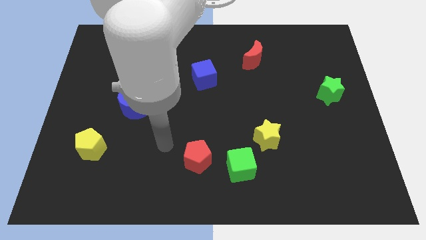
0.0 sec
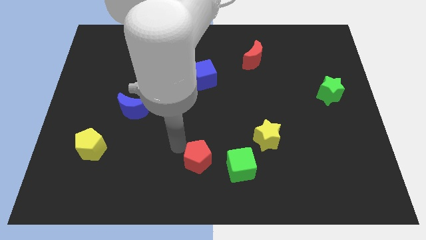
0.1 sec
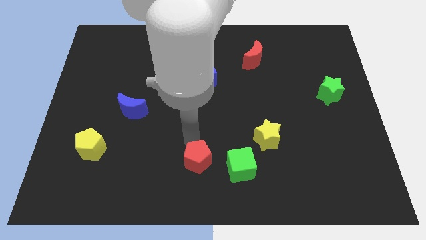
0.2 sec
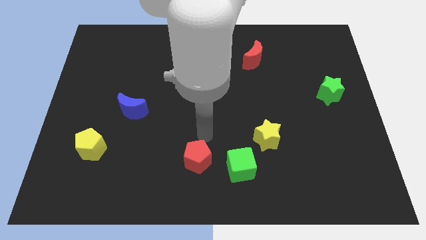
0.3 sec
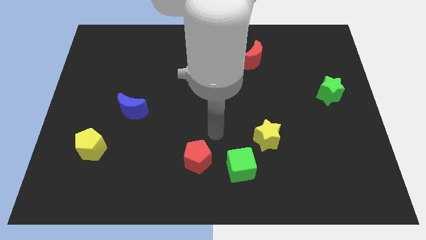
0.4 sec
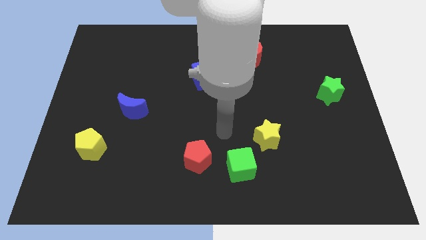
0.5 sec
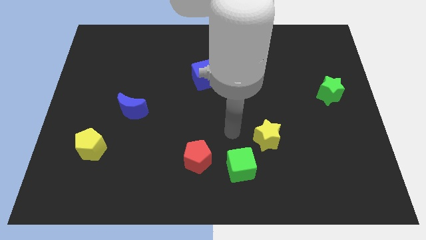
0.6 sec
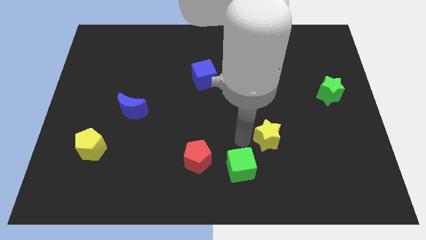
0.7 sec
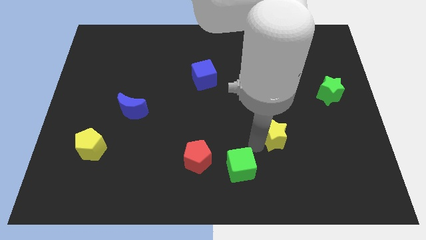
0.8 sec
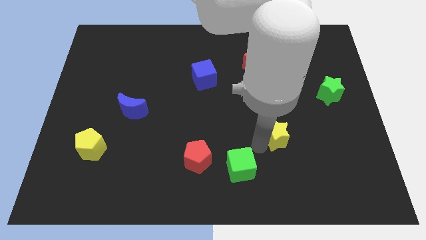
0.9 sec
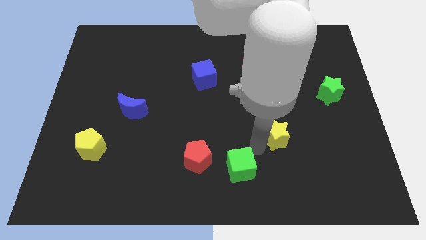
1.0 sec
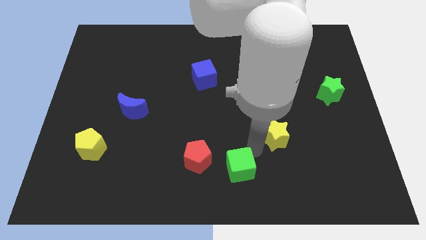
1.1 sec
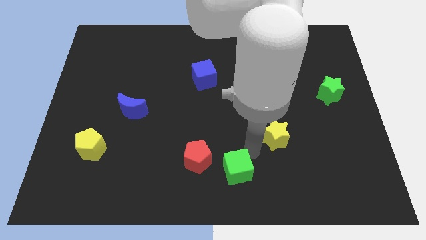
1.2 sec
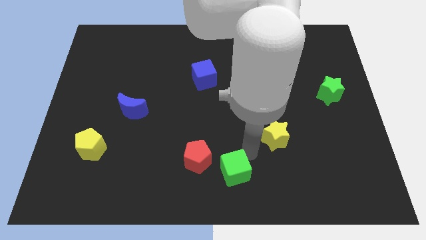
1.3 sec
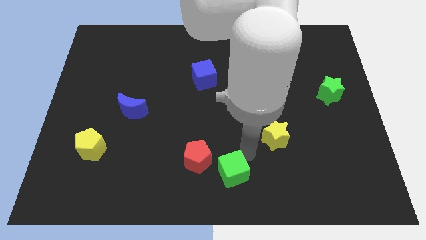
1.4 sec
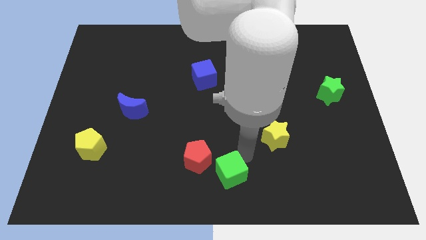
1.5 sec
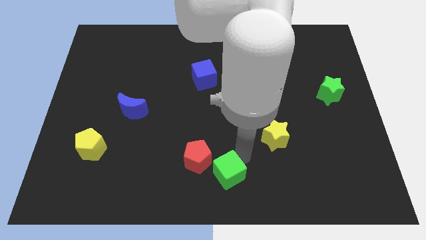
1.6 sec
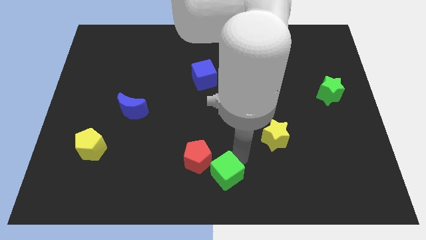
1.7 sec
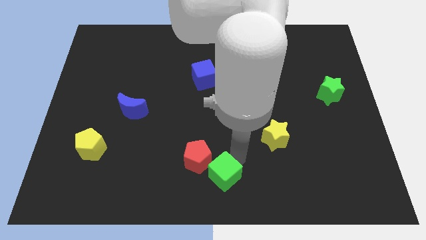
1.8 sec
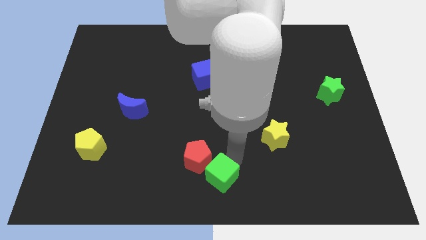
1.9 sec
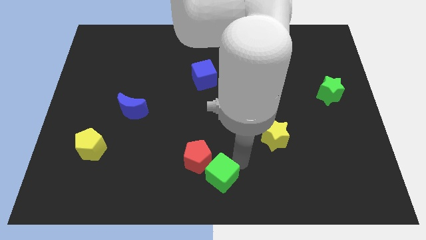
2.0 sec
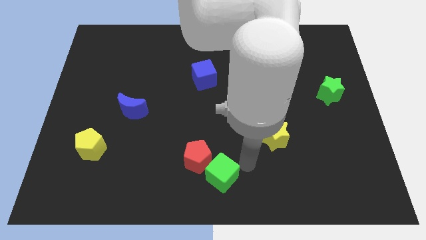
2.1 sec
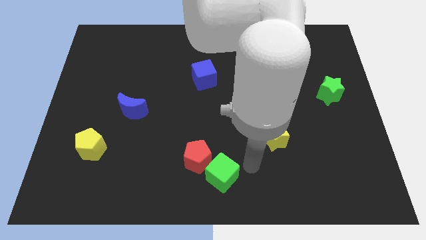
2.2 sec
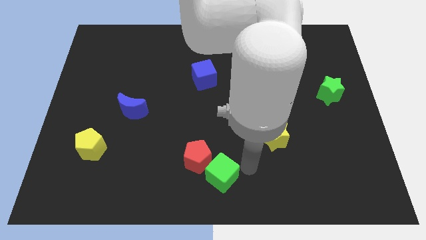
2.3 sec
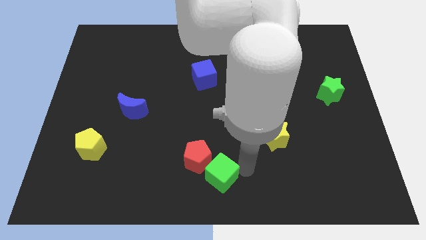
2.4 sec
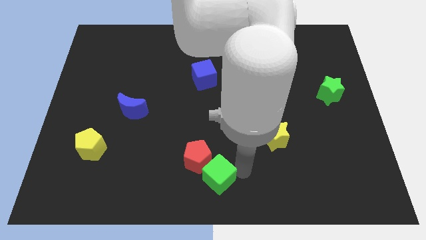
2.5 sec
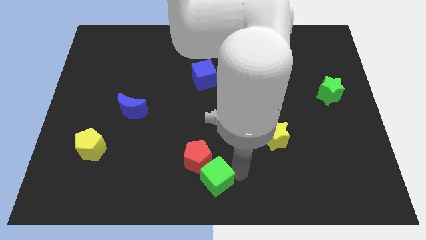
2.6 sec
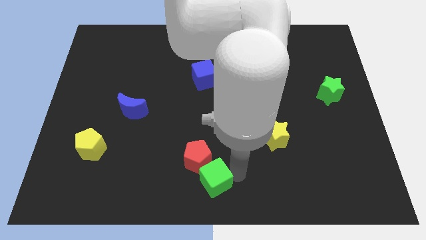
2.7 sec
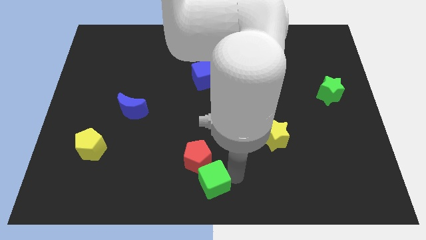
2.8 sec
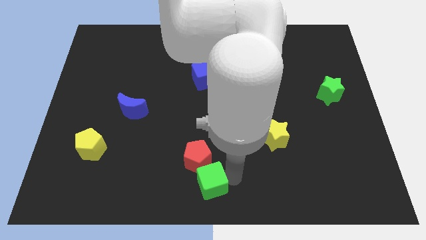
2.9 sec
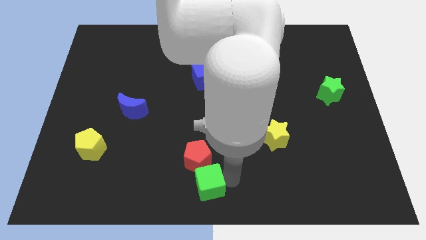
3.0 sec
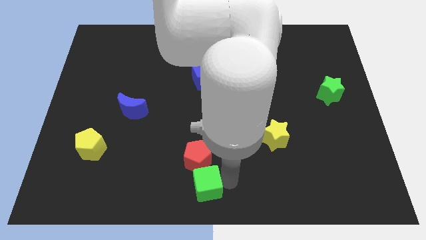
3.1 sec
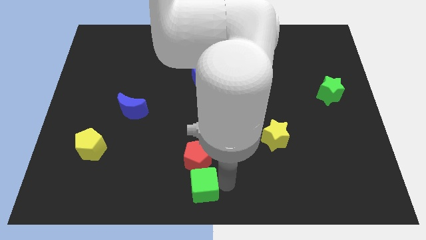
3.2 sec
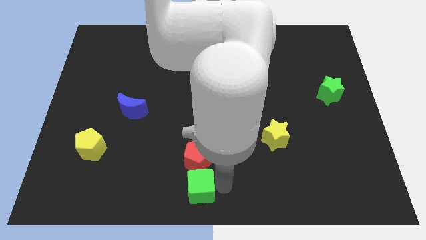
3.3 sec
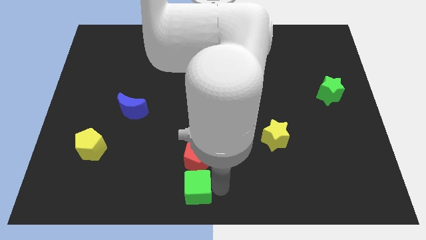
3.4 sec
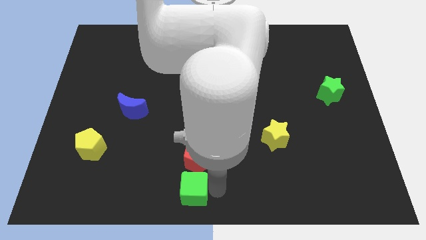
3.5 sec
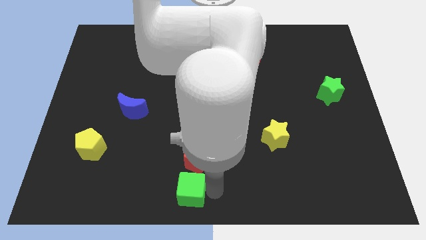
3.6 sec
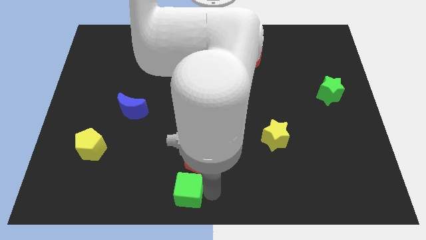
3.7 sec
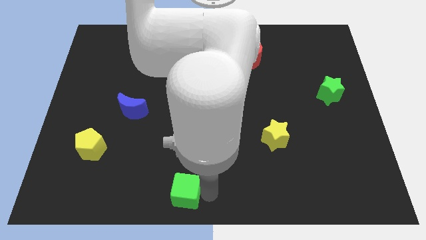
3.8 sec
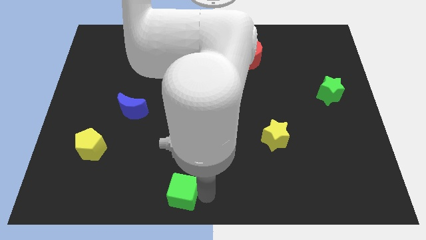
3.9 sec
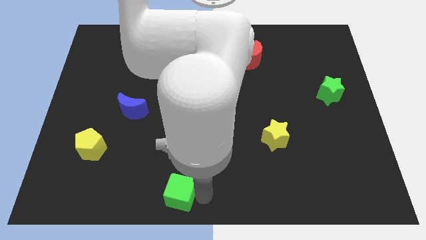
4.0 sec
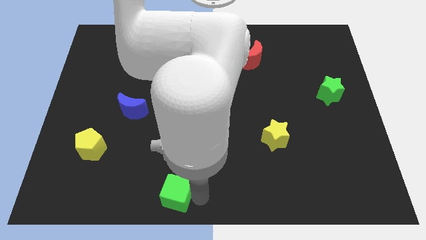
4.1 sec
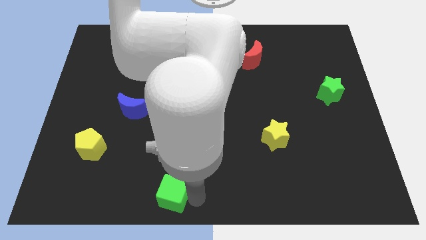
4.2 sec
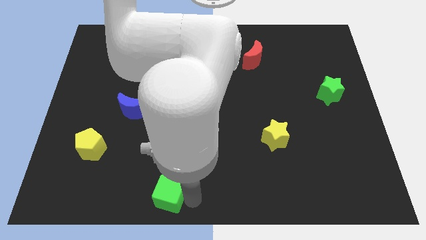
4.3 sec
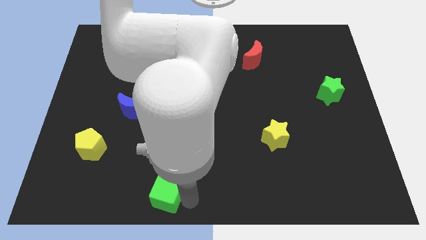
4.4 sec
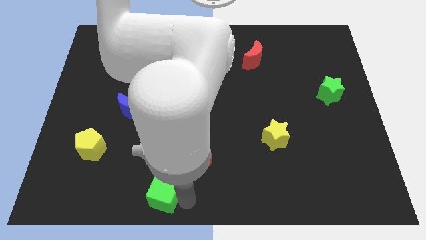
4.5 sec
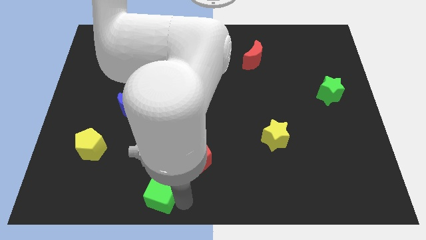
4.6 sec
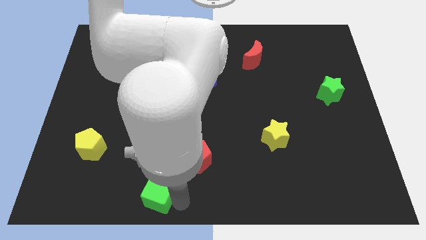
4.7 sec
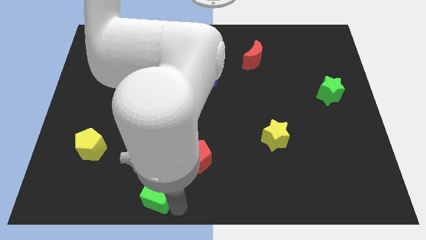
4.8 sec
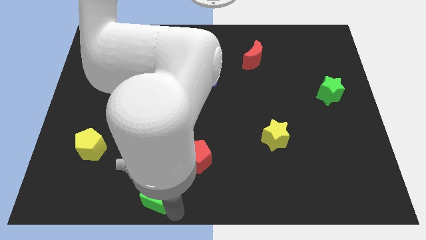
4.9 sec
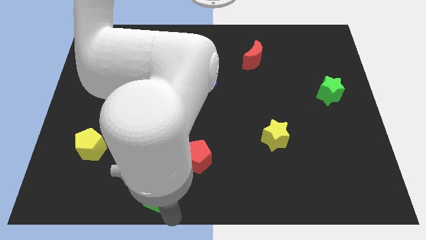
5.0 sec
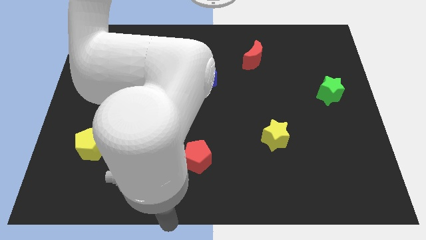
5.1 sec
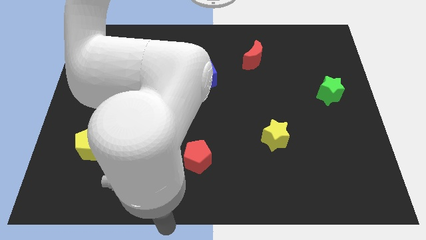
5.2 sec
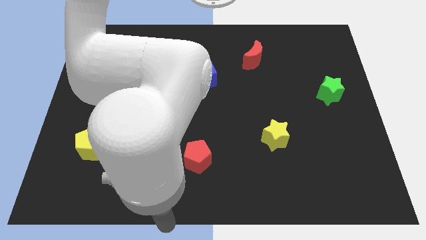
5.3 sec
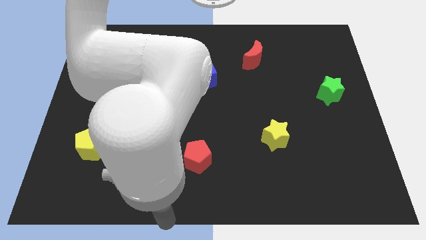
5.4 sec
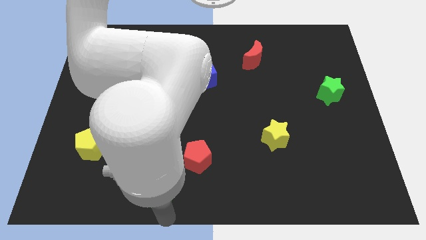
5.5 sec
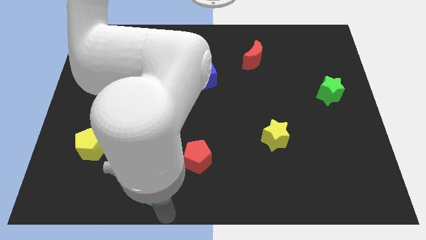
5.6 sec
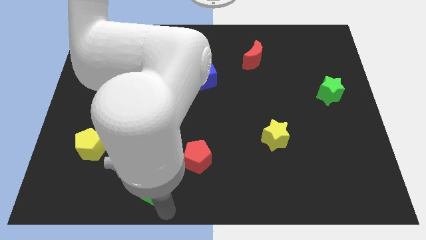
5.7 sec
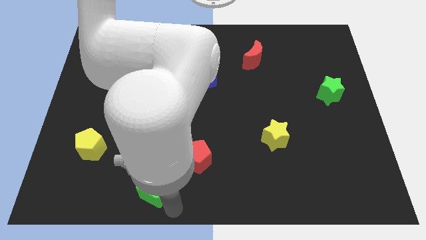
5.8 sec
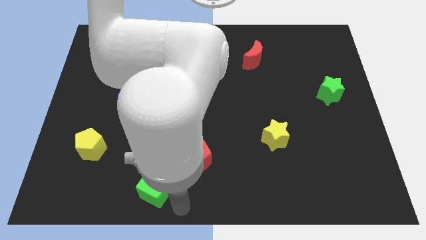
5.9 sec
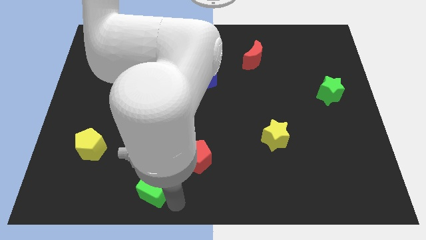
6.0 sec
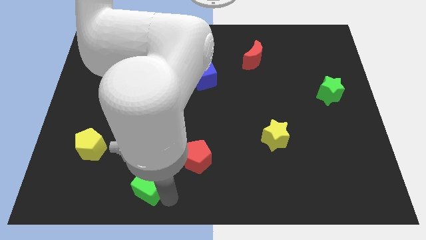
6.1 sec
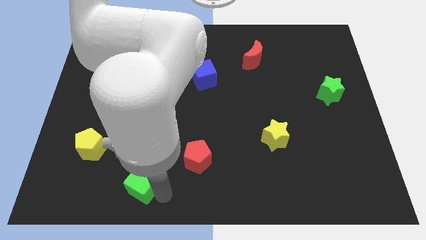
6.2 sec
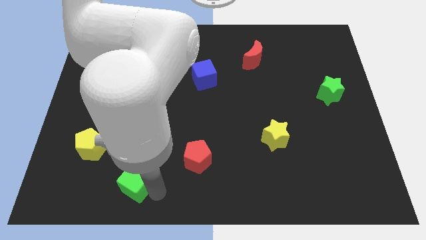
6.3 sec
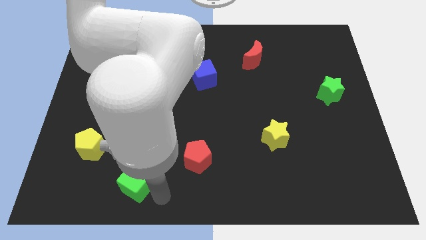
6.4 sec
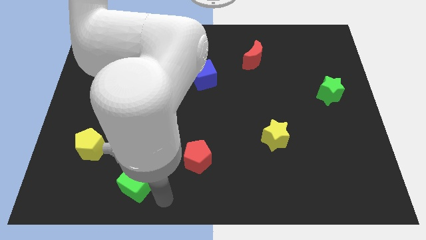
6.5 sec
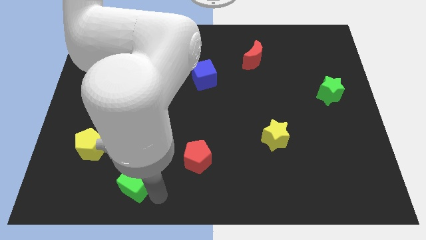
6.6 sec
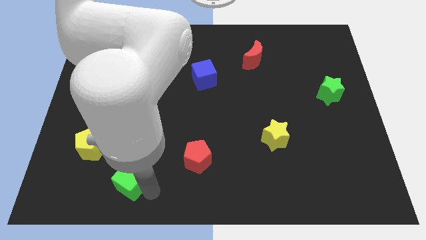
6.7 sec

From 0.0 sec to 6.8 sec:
move the green cube to the bottom right side of the yellow pentagon

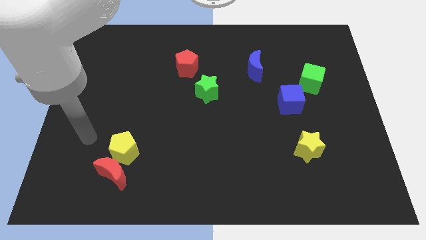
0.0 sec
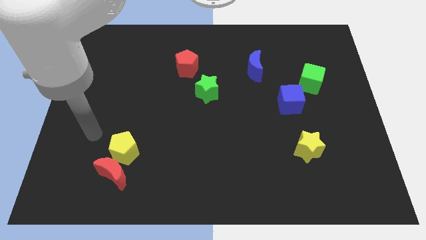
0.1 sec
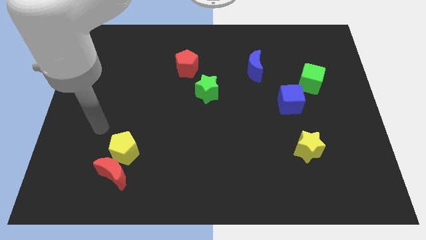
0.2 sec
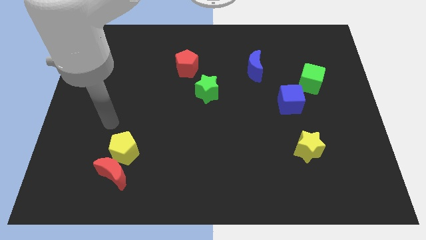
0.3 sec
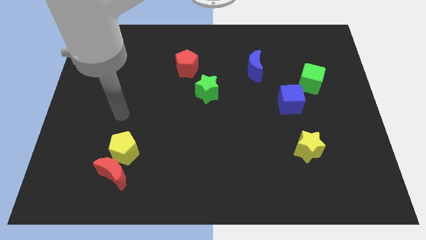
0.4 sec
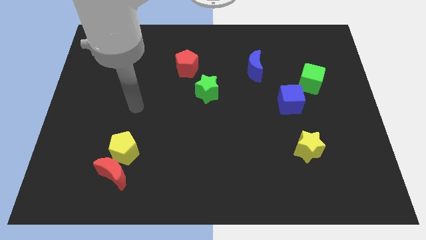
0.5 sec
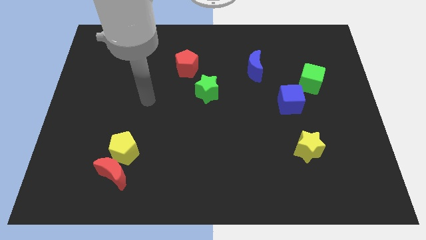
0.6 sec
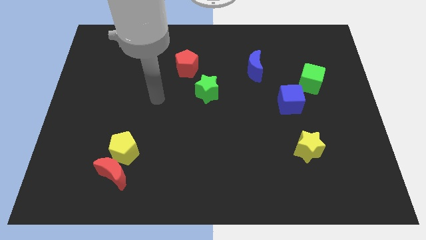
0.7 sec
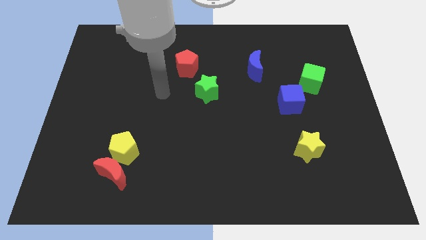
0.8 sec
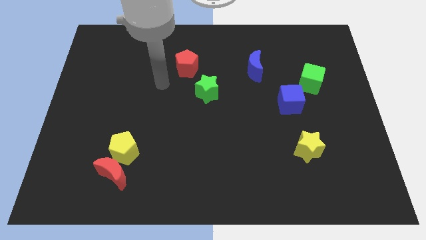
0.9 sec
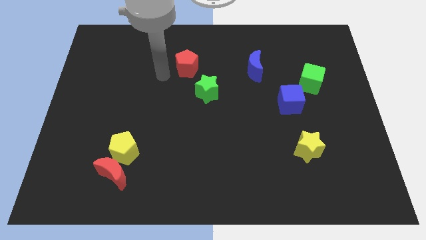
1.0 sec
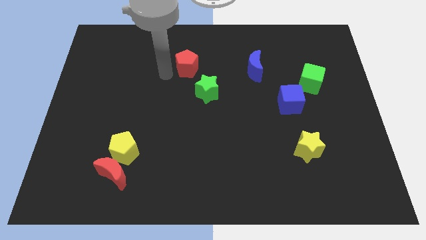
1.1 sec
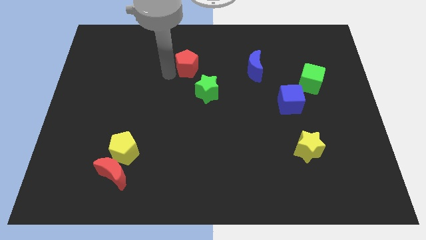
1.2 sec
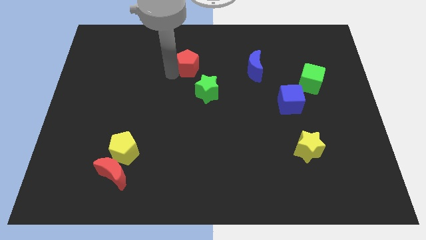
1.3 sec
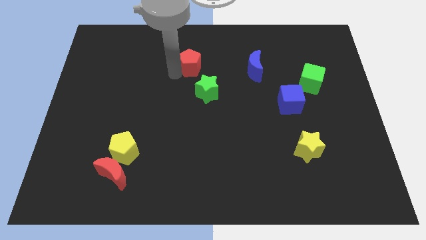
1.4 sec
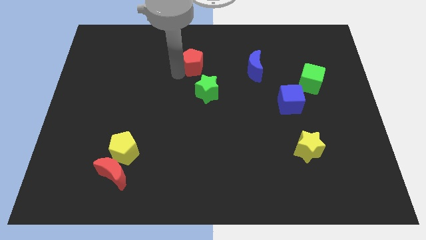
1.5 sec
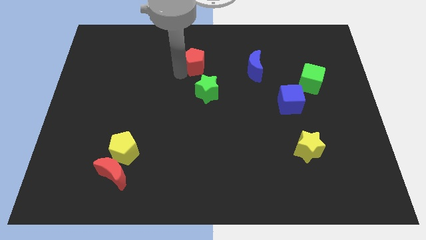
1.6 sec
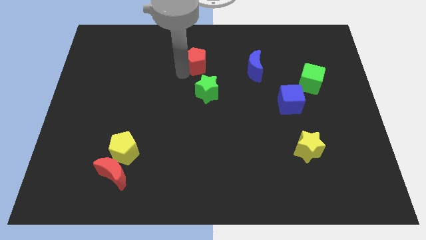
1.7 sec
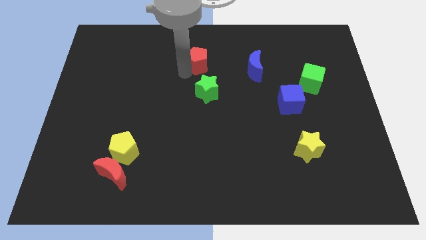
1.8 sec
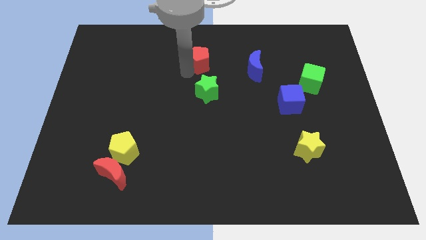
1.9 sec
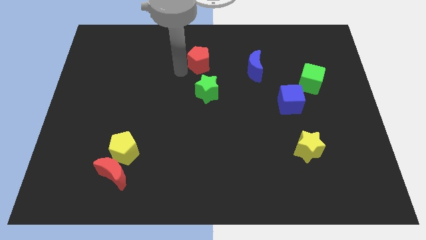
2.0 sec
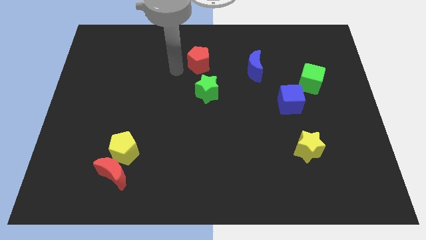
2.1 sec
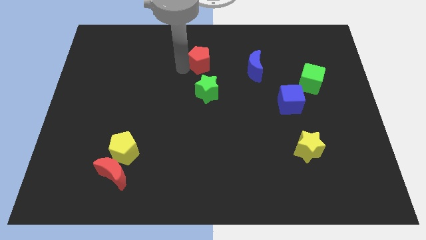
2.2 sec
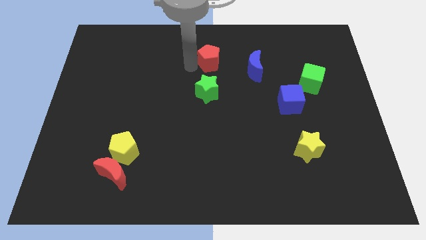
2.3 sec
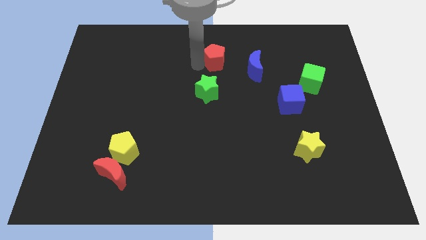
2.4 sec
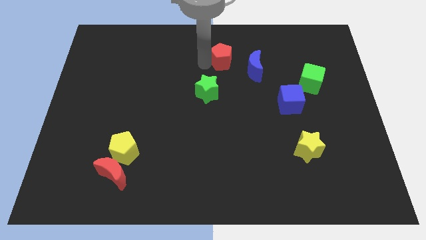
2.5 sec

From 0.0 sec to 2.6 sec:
move the red pentagon to the top left of the blue moon
